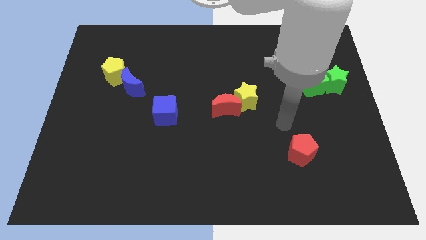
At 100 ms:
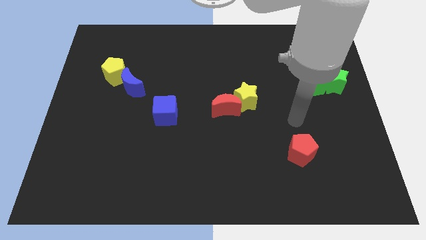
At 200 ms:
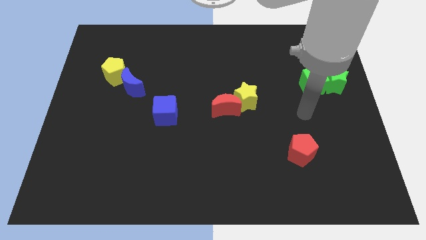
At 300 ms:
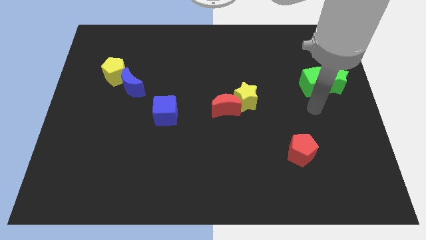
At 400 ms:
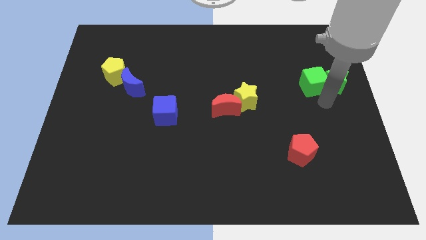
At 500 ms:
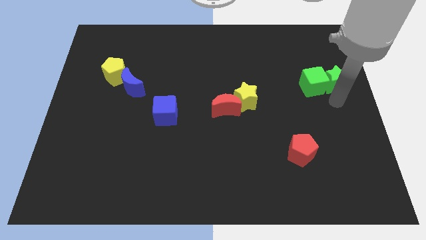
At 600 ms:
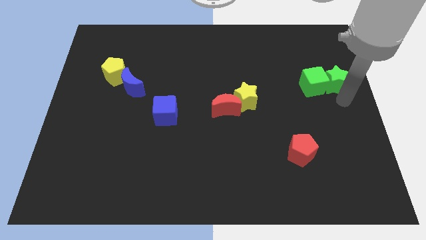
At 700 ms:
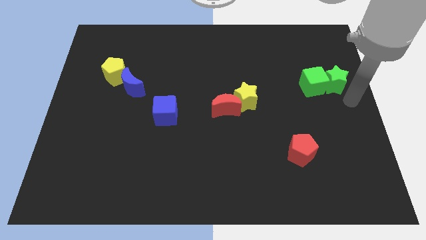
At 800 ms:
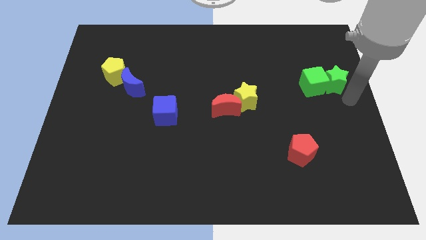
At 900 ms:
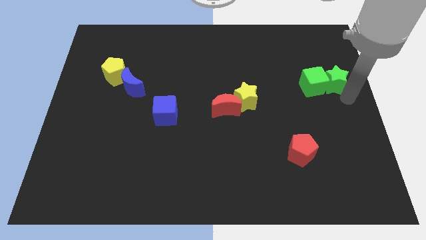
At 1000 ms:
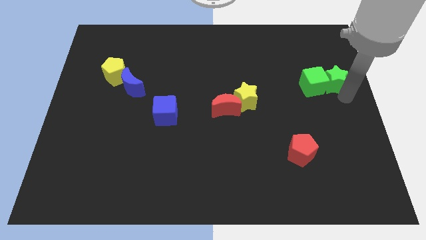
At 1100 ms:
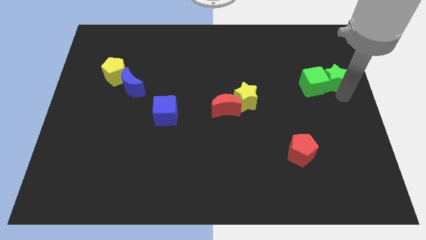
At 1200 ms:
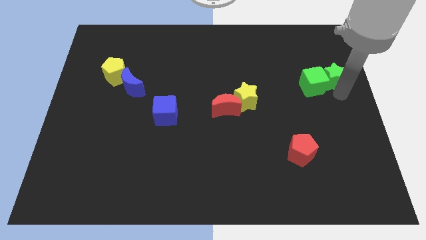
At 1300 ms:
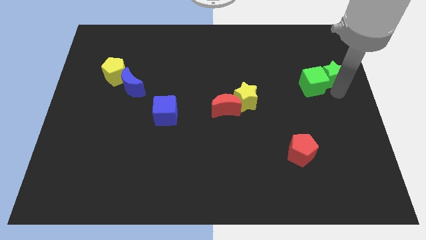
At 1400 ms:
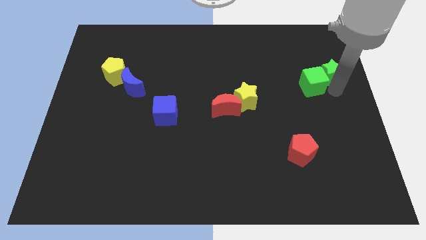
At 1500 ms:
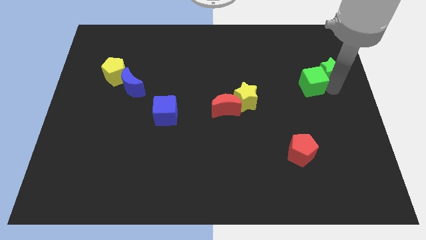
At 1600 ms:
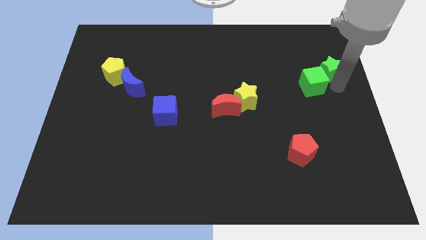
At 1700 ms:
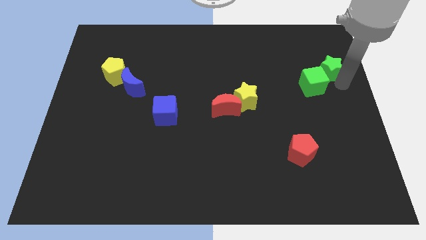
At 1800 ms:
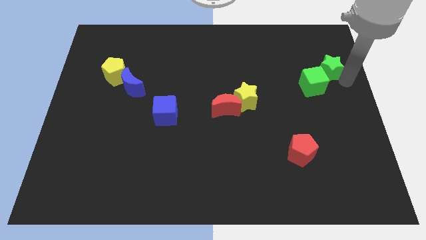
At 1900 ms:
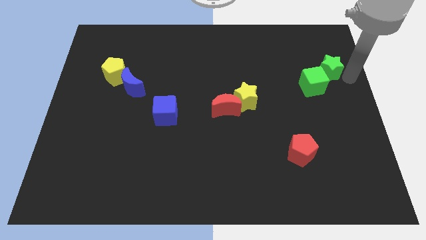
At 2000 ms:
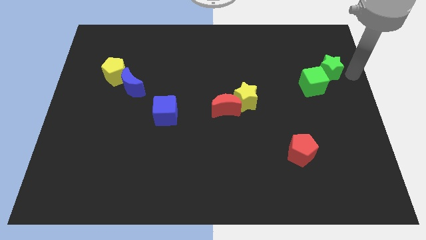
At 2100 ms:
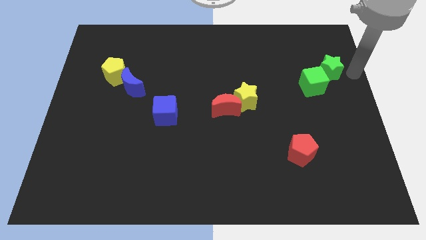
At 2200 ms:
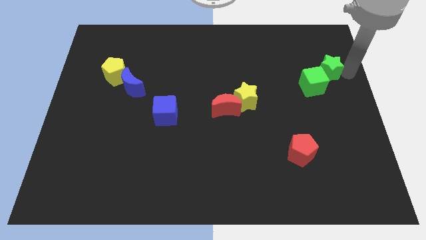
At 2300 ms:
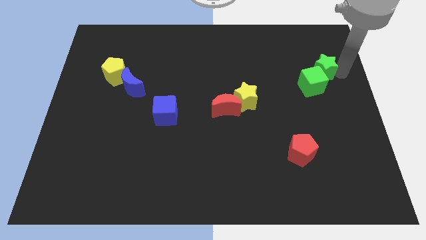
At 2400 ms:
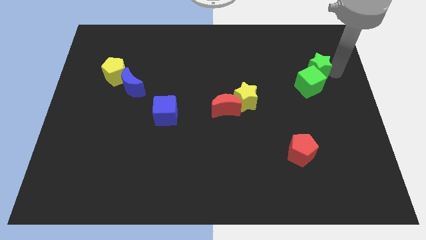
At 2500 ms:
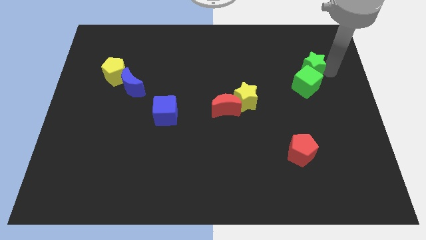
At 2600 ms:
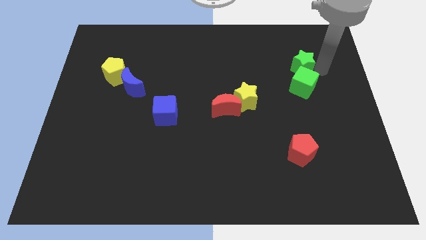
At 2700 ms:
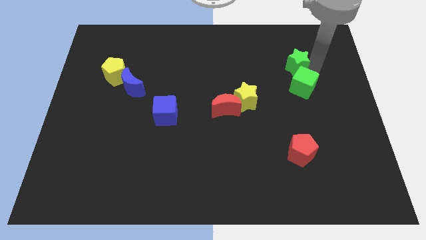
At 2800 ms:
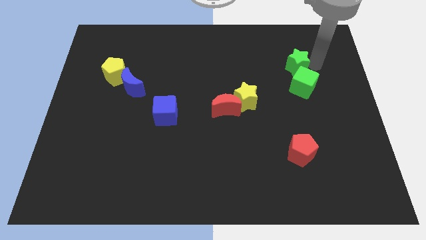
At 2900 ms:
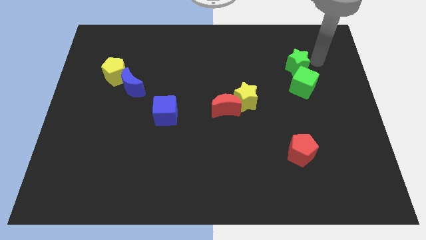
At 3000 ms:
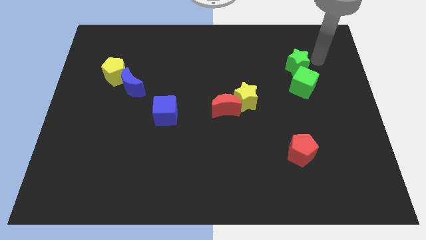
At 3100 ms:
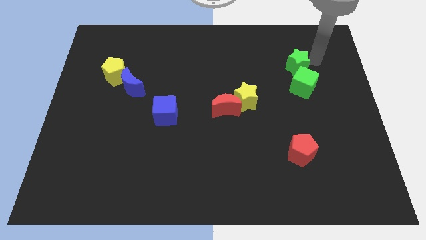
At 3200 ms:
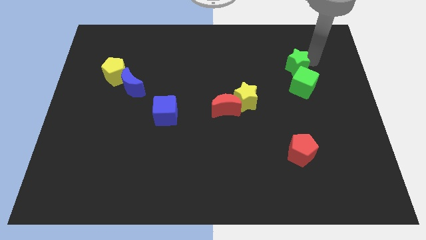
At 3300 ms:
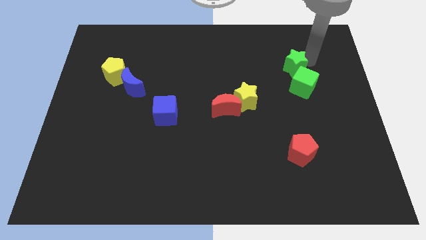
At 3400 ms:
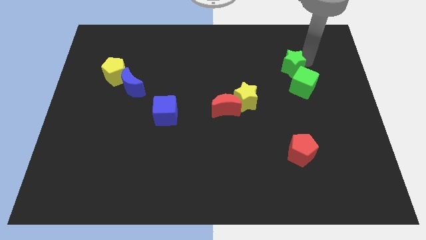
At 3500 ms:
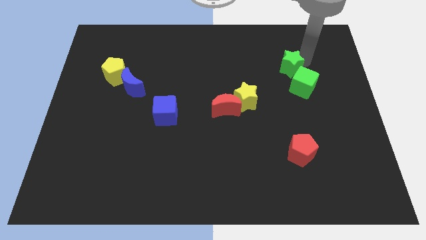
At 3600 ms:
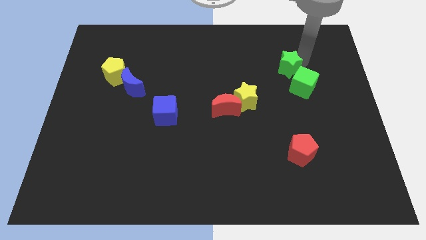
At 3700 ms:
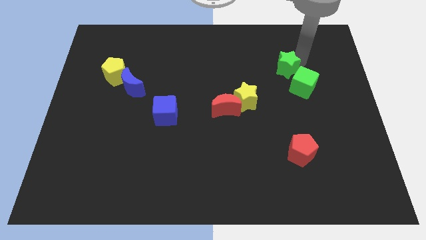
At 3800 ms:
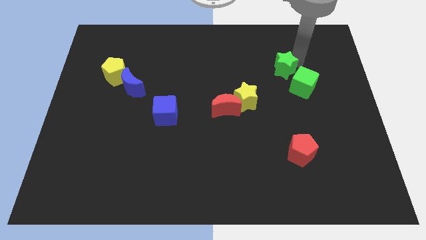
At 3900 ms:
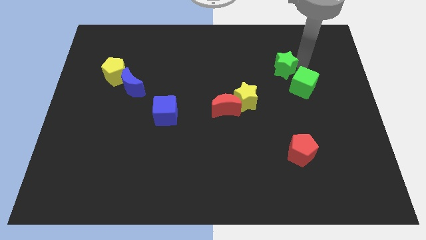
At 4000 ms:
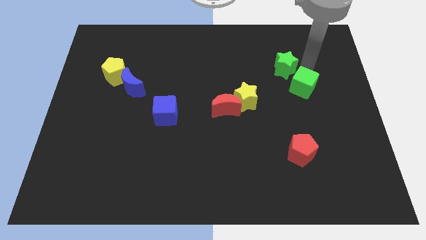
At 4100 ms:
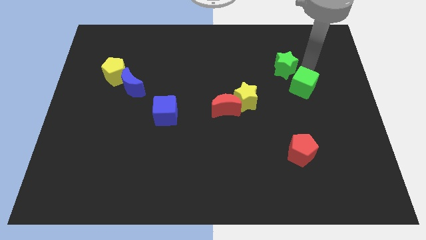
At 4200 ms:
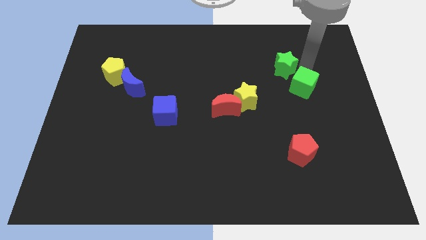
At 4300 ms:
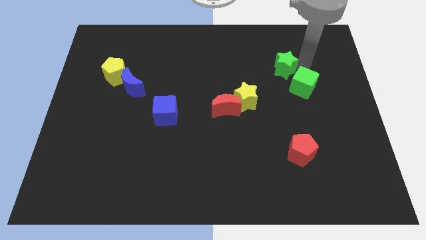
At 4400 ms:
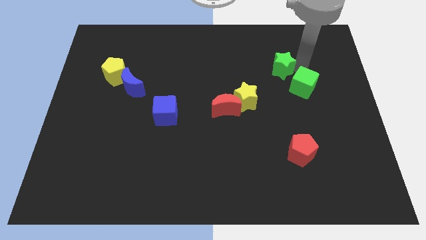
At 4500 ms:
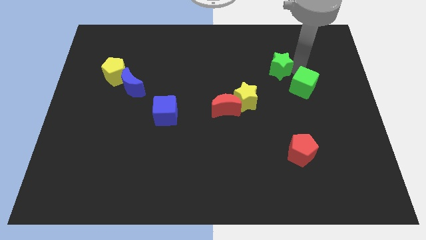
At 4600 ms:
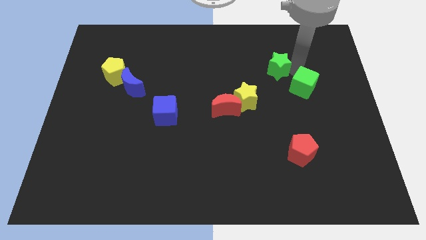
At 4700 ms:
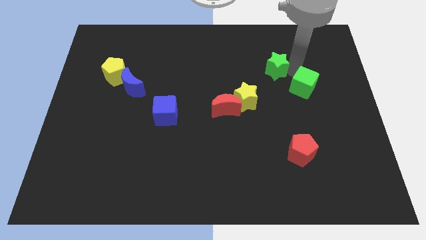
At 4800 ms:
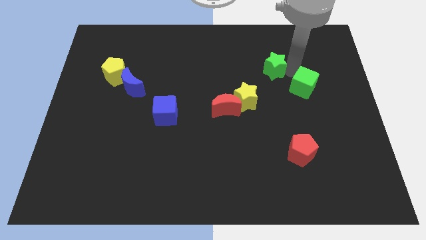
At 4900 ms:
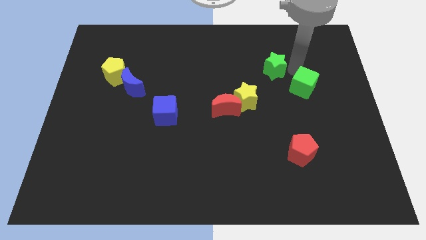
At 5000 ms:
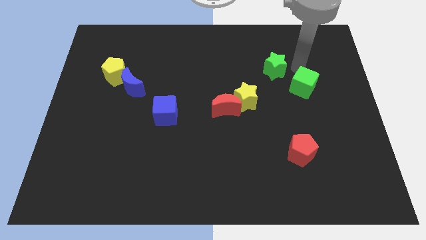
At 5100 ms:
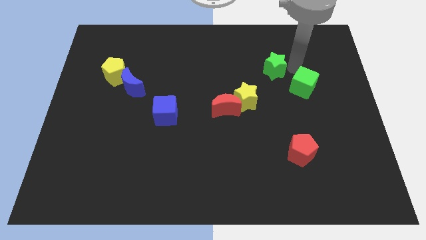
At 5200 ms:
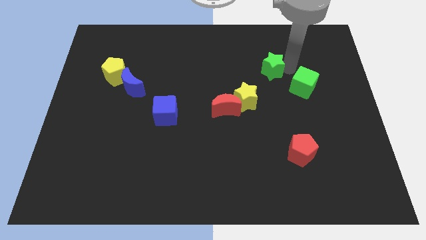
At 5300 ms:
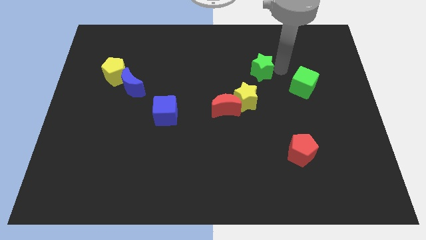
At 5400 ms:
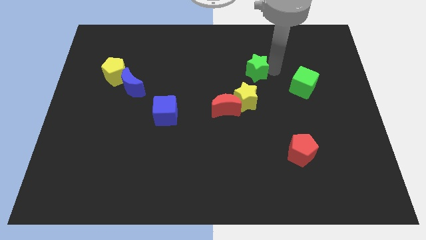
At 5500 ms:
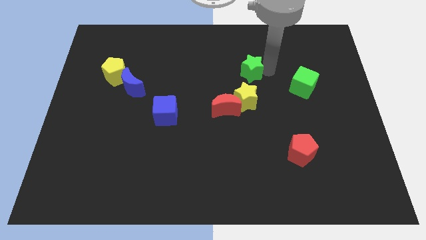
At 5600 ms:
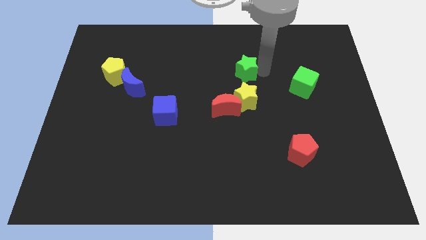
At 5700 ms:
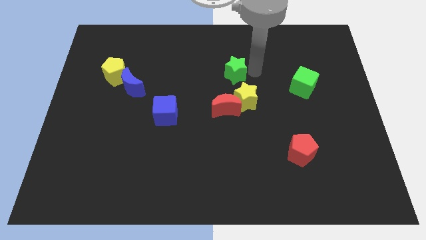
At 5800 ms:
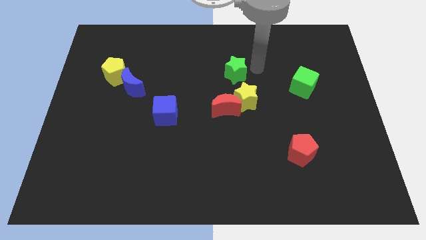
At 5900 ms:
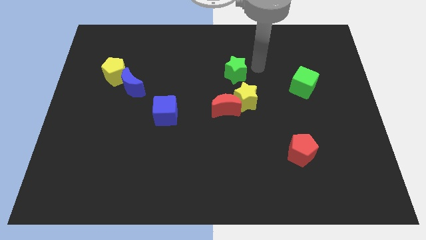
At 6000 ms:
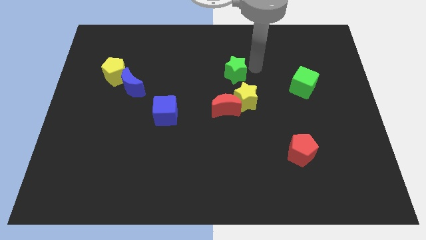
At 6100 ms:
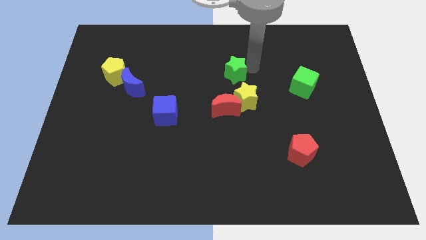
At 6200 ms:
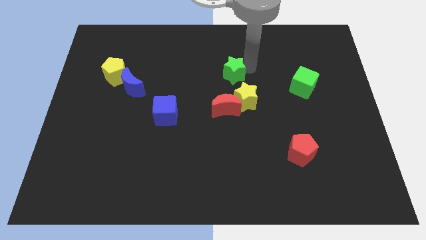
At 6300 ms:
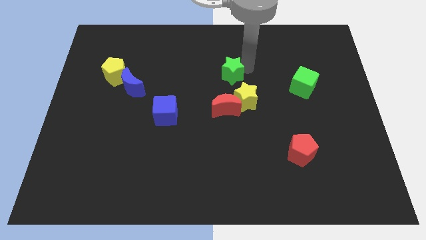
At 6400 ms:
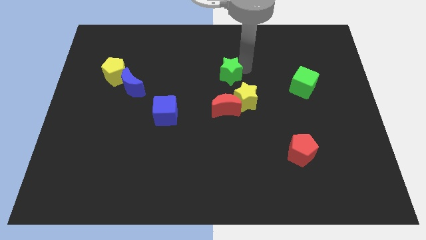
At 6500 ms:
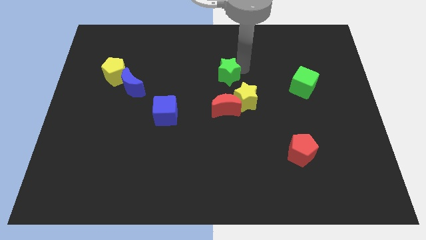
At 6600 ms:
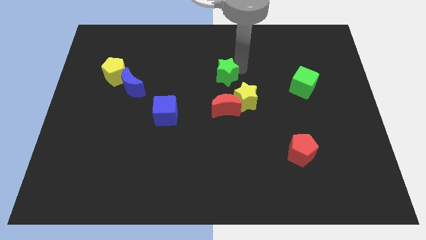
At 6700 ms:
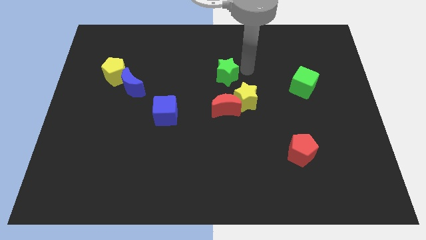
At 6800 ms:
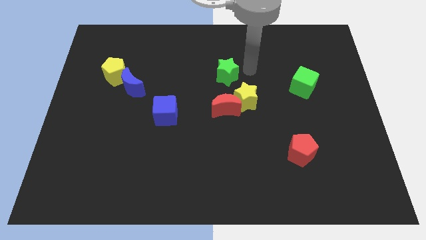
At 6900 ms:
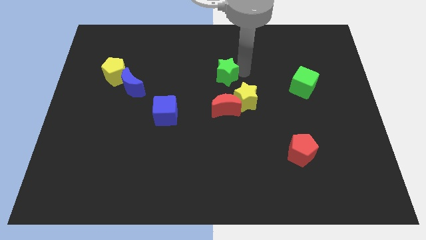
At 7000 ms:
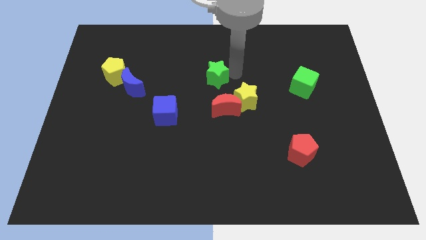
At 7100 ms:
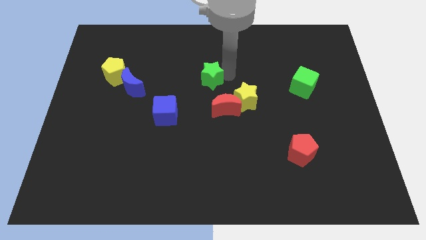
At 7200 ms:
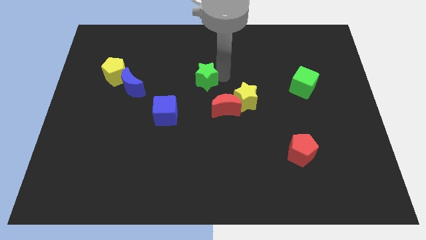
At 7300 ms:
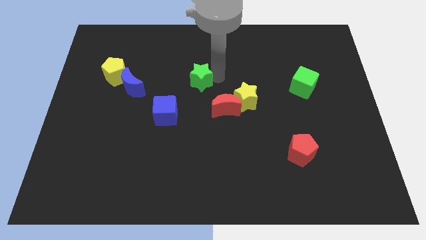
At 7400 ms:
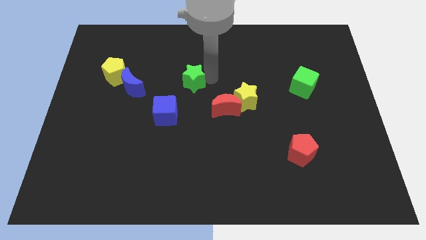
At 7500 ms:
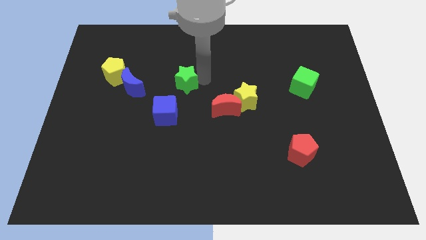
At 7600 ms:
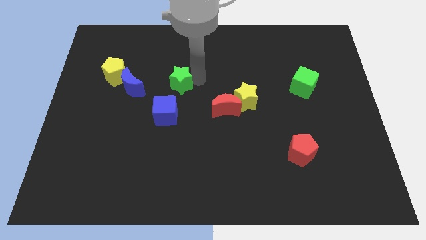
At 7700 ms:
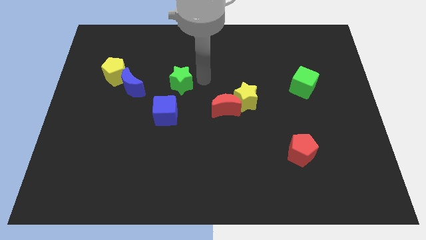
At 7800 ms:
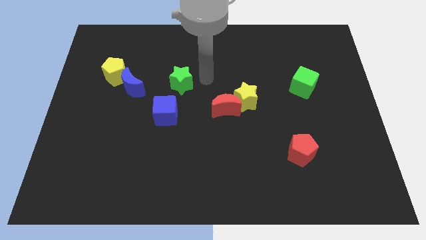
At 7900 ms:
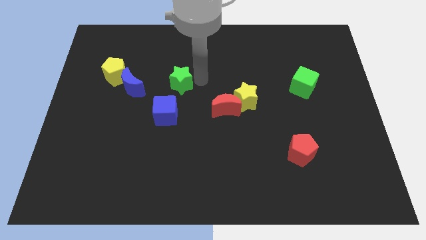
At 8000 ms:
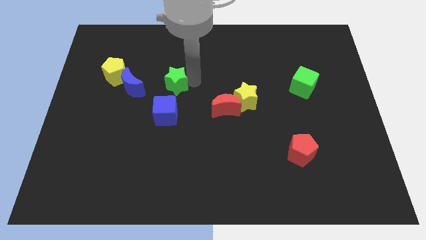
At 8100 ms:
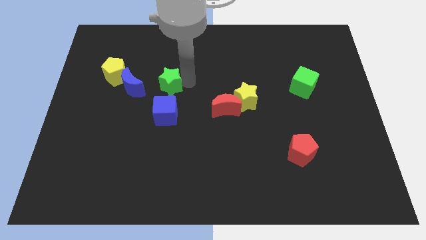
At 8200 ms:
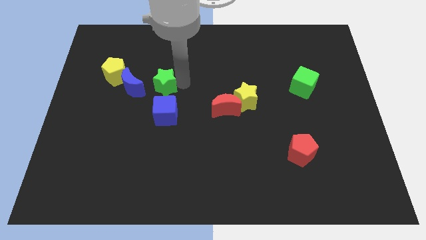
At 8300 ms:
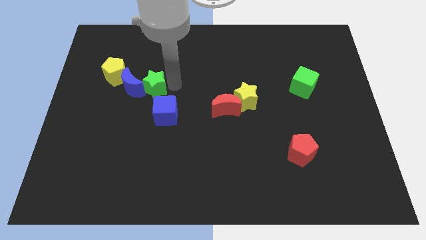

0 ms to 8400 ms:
slide the green star towards the blue moon
